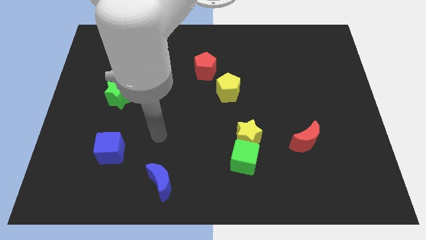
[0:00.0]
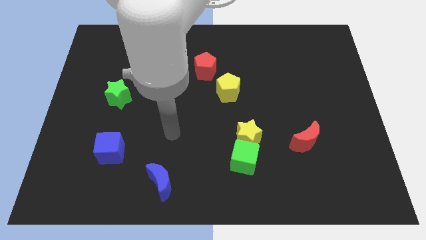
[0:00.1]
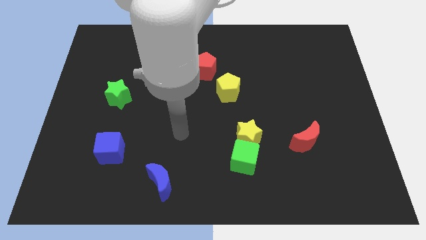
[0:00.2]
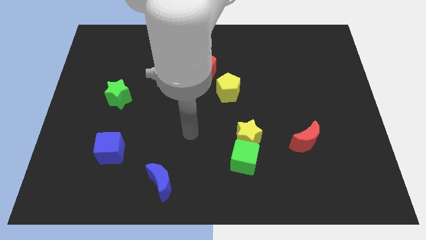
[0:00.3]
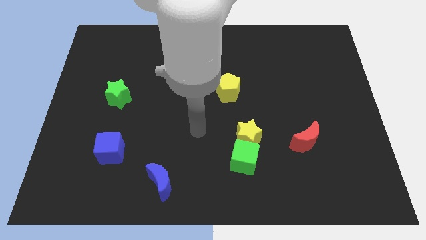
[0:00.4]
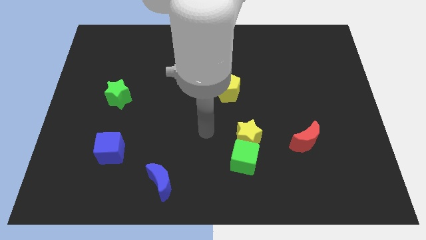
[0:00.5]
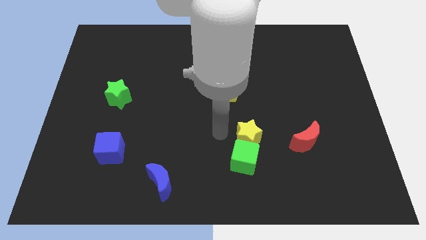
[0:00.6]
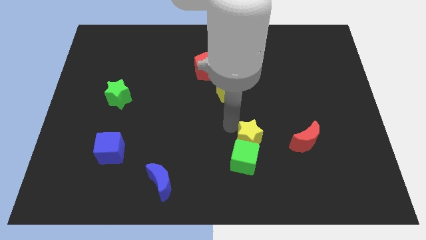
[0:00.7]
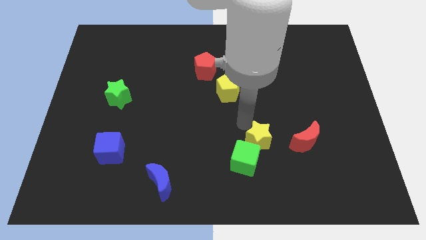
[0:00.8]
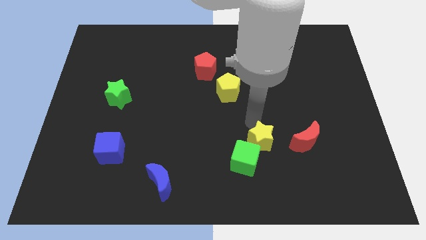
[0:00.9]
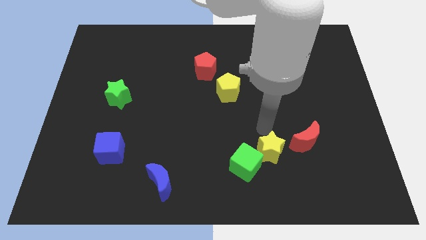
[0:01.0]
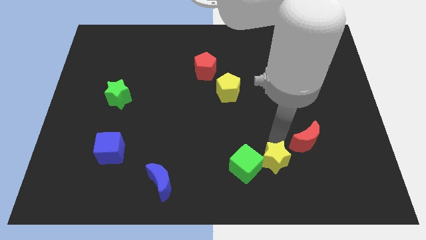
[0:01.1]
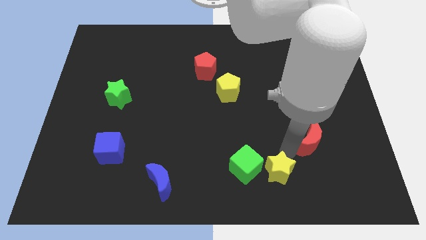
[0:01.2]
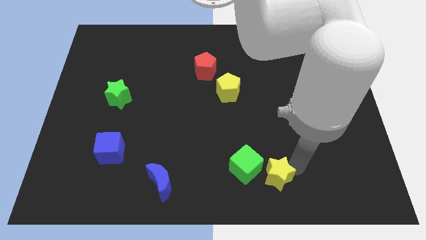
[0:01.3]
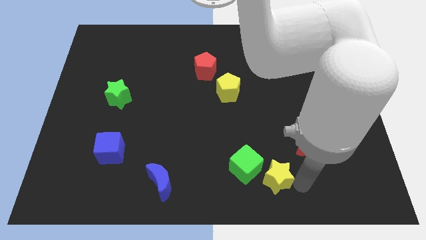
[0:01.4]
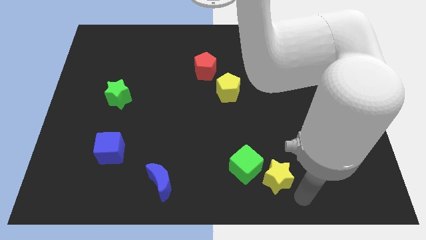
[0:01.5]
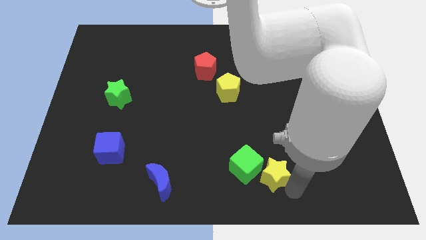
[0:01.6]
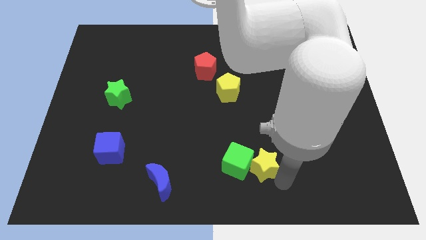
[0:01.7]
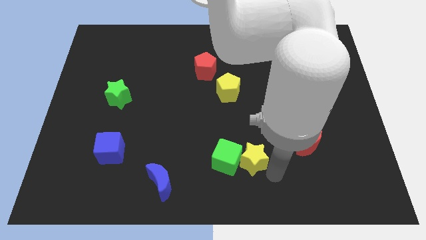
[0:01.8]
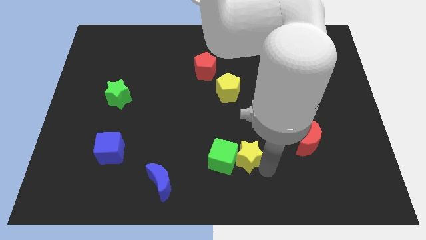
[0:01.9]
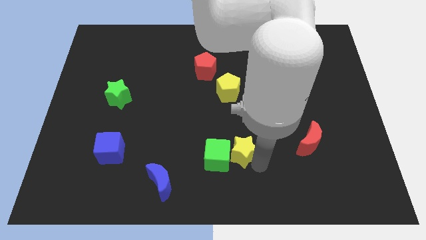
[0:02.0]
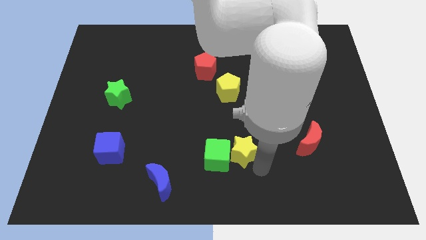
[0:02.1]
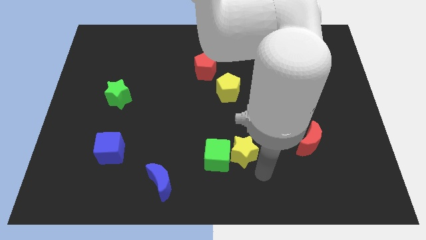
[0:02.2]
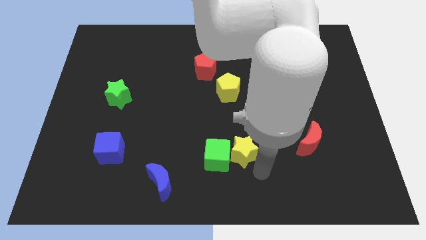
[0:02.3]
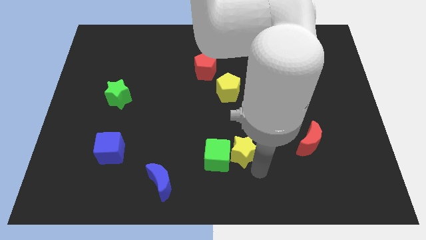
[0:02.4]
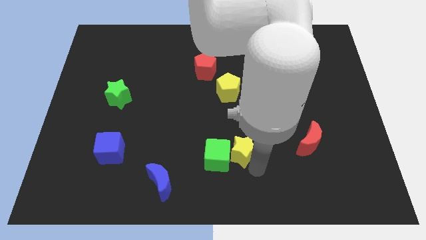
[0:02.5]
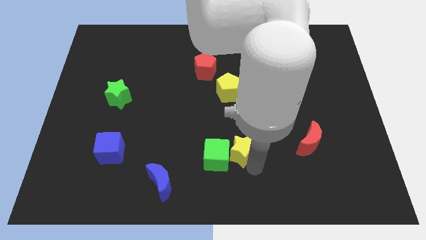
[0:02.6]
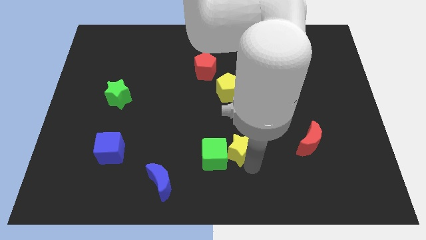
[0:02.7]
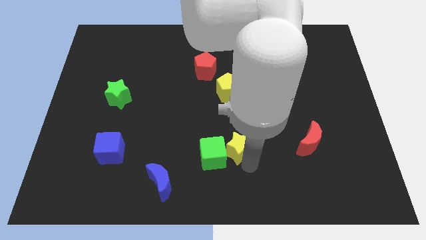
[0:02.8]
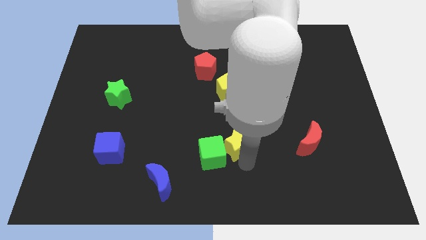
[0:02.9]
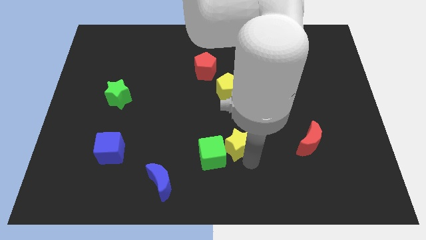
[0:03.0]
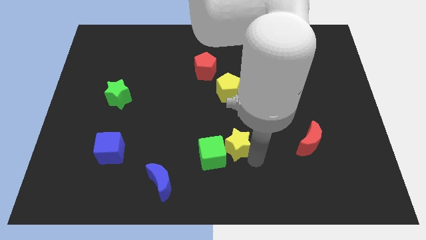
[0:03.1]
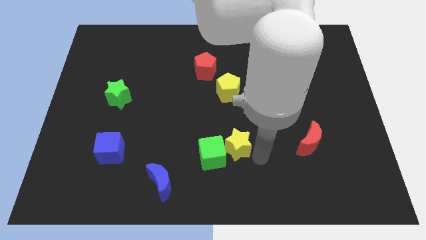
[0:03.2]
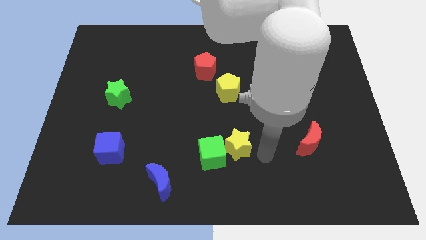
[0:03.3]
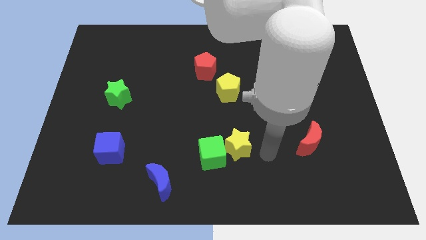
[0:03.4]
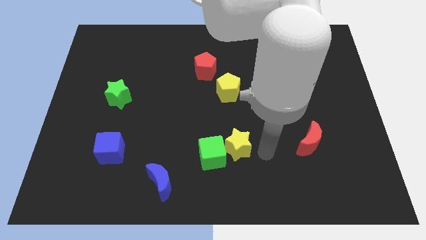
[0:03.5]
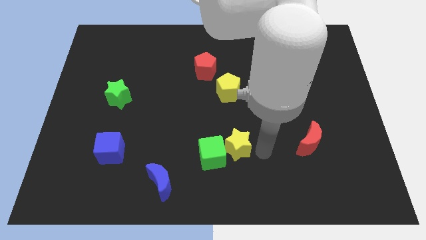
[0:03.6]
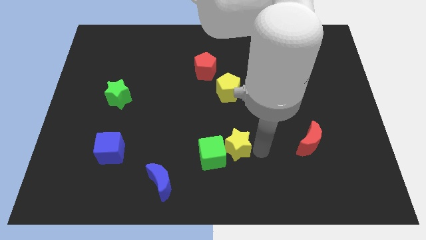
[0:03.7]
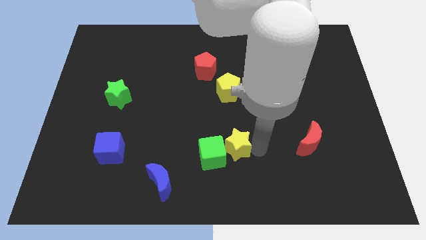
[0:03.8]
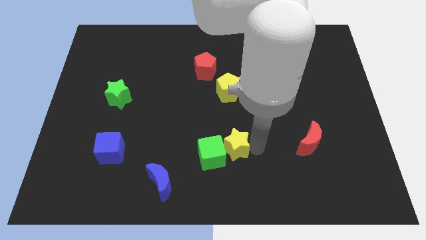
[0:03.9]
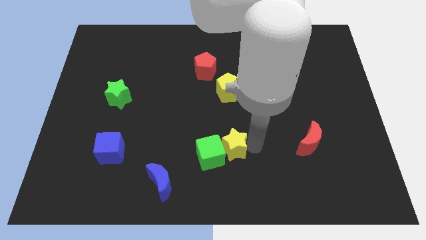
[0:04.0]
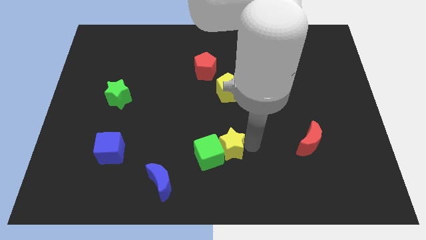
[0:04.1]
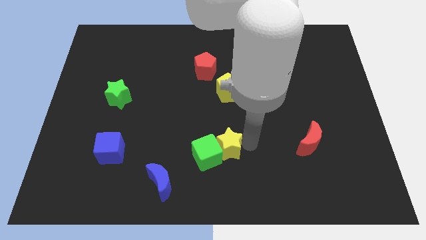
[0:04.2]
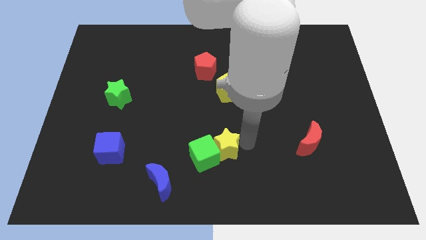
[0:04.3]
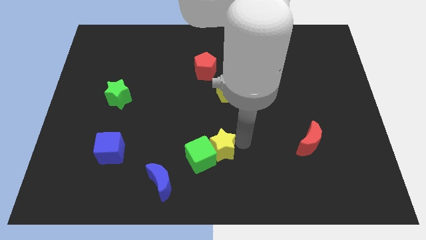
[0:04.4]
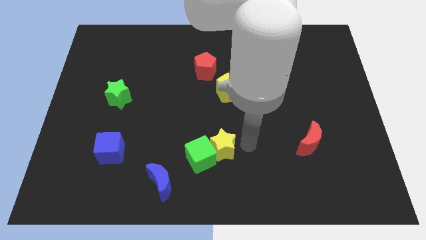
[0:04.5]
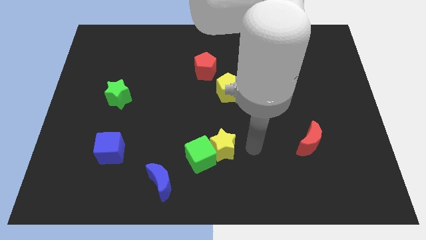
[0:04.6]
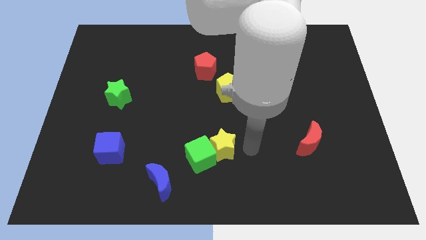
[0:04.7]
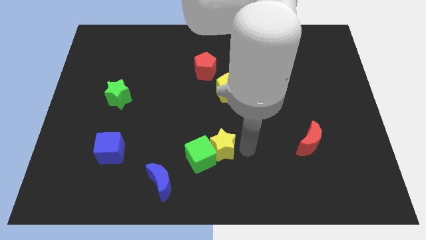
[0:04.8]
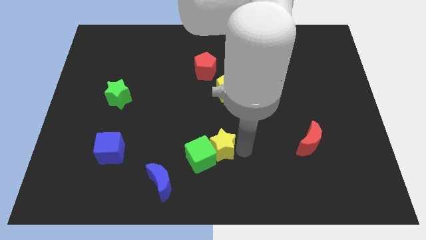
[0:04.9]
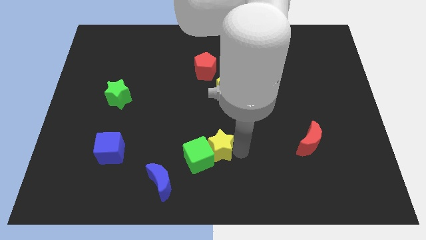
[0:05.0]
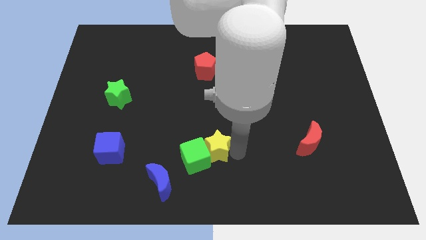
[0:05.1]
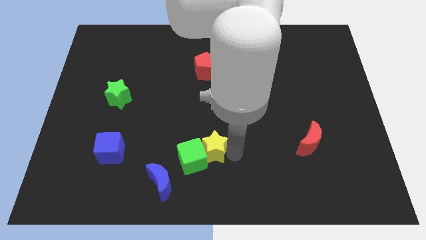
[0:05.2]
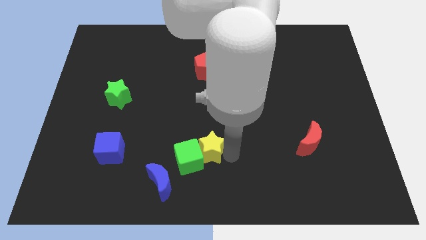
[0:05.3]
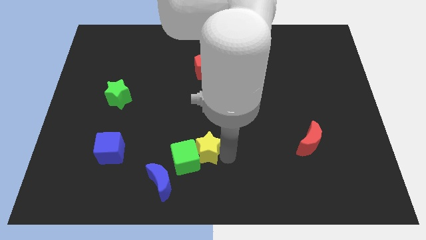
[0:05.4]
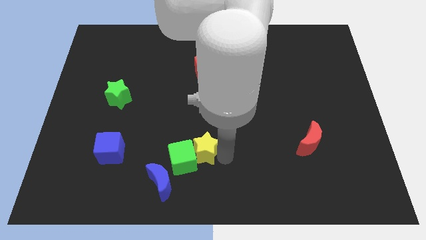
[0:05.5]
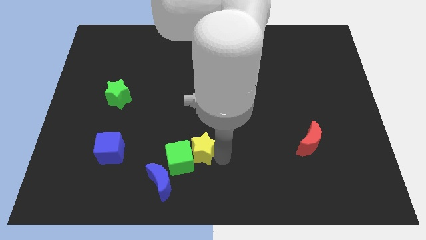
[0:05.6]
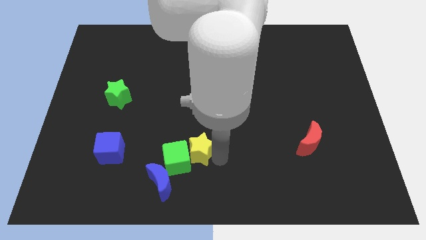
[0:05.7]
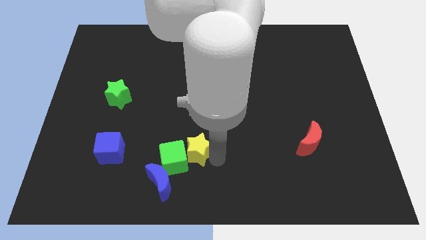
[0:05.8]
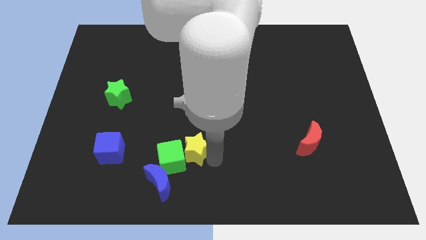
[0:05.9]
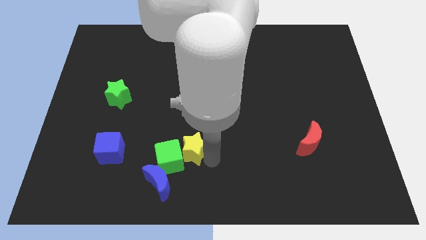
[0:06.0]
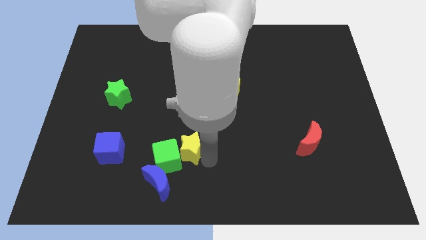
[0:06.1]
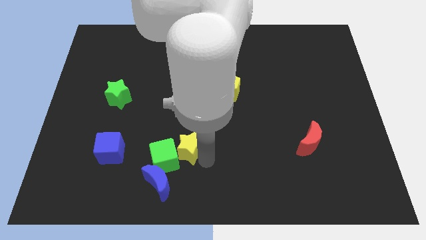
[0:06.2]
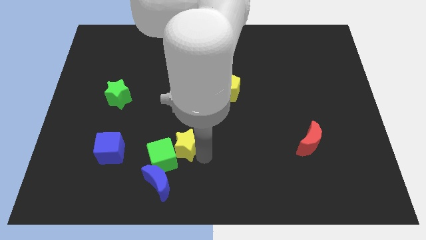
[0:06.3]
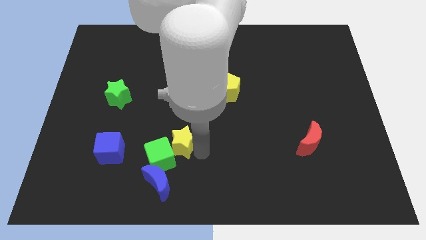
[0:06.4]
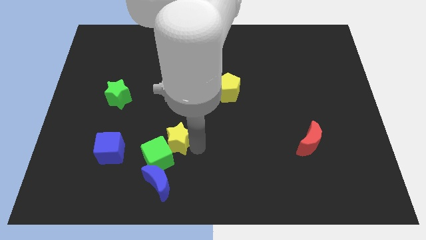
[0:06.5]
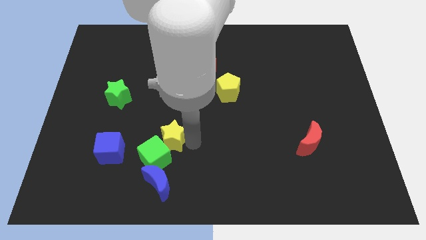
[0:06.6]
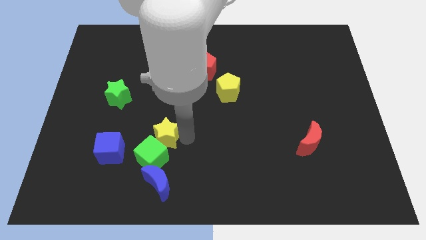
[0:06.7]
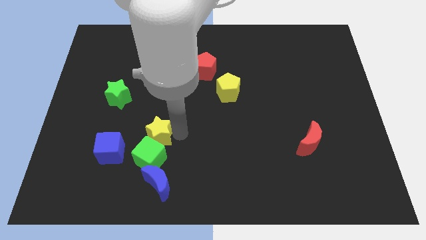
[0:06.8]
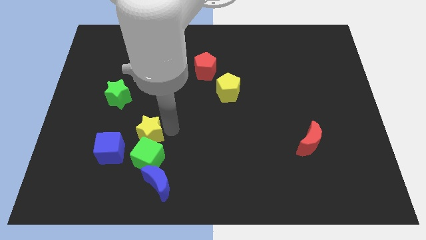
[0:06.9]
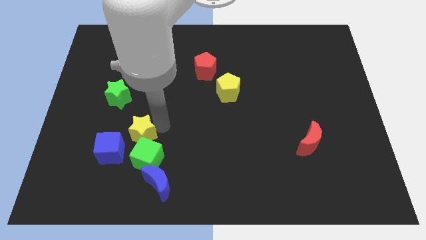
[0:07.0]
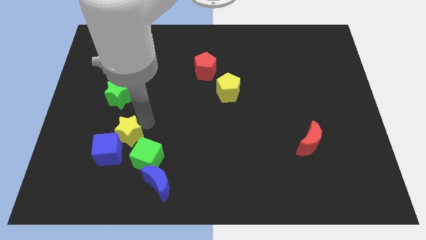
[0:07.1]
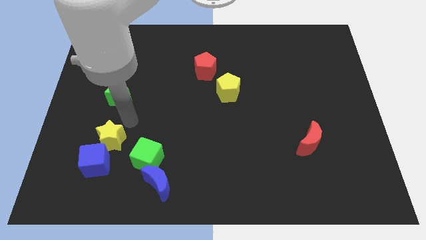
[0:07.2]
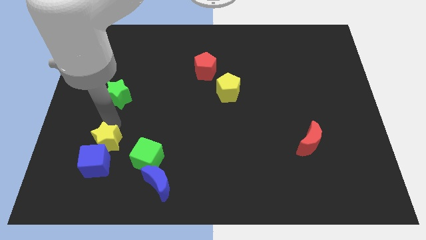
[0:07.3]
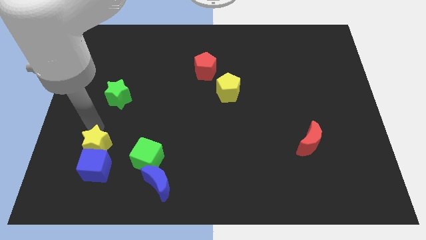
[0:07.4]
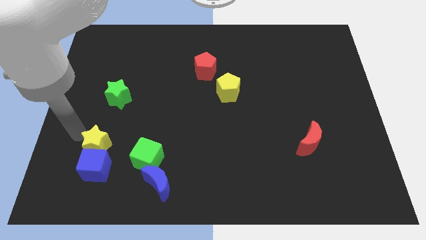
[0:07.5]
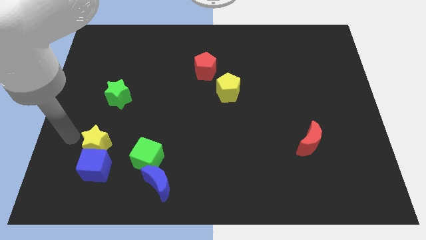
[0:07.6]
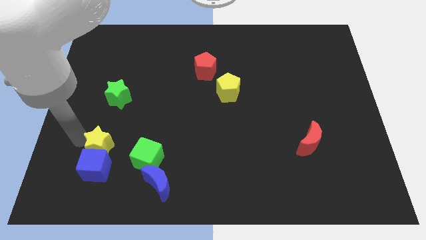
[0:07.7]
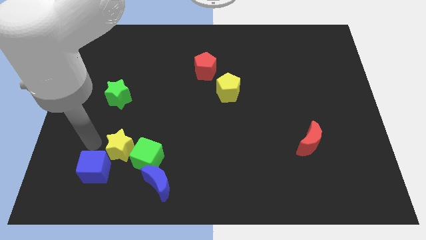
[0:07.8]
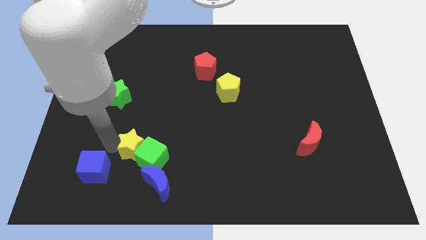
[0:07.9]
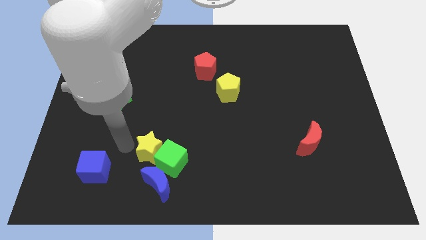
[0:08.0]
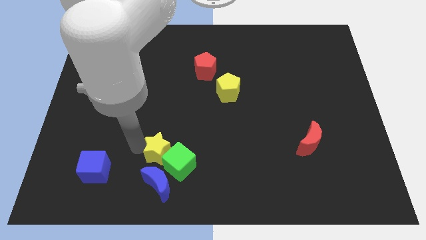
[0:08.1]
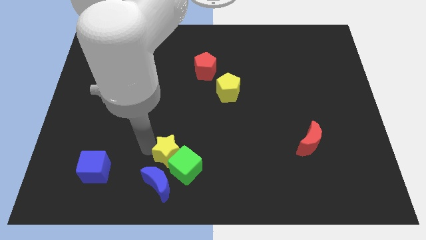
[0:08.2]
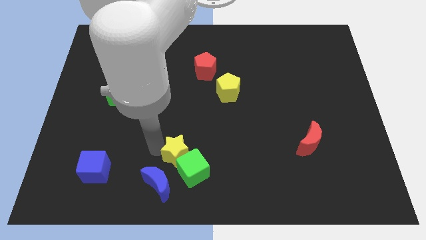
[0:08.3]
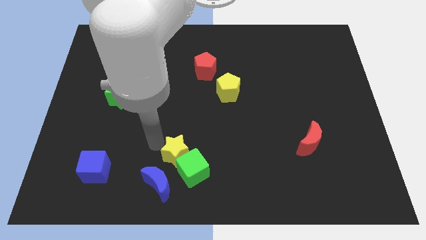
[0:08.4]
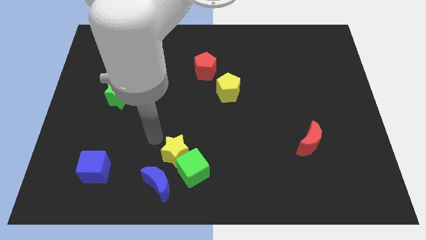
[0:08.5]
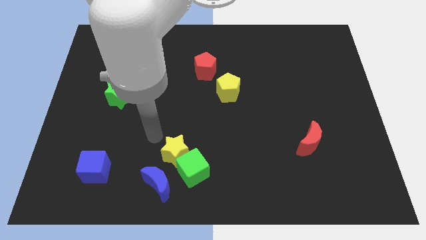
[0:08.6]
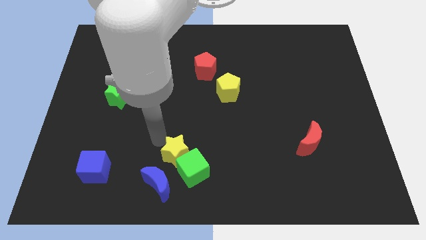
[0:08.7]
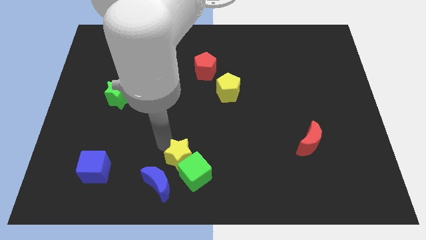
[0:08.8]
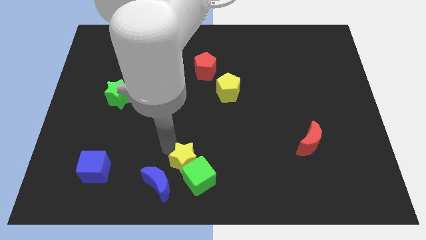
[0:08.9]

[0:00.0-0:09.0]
slide the yellow star to the bottom side
